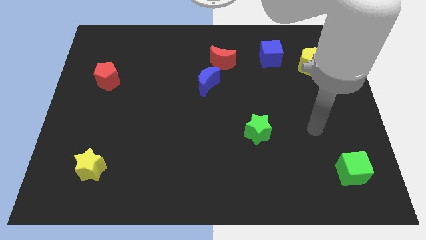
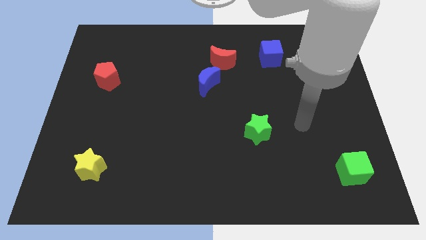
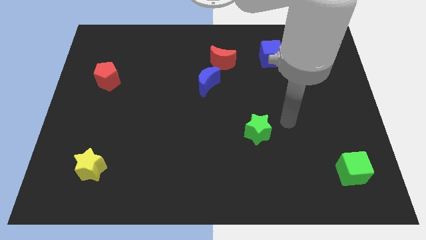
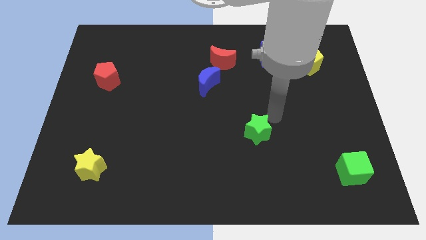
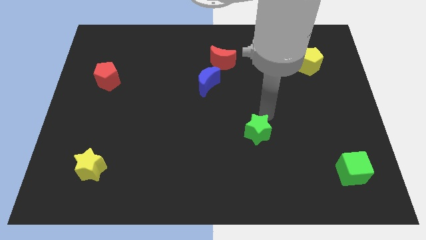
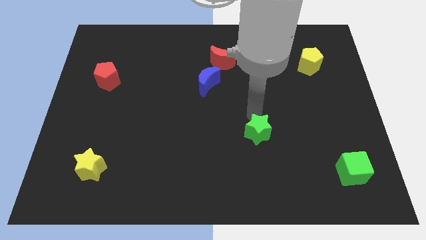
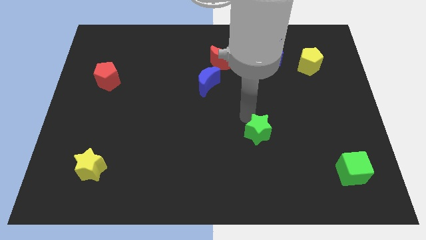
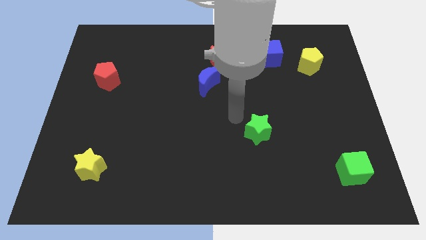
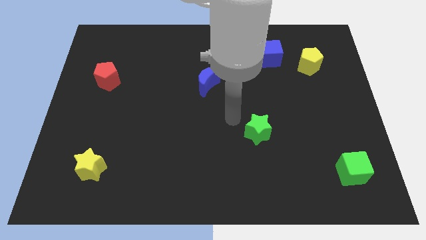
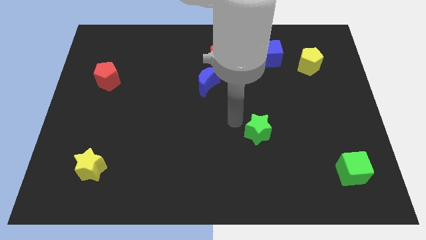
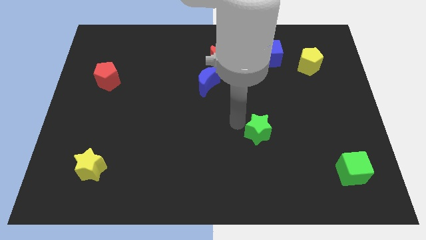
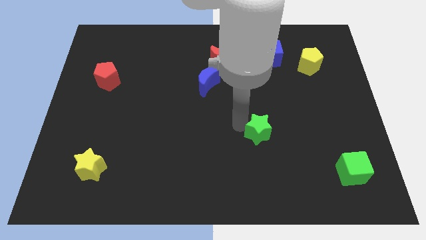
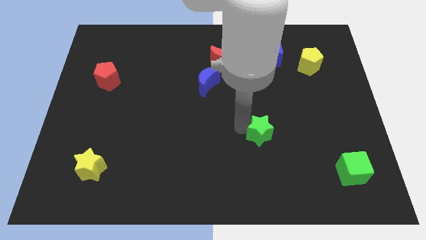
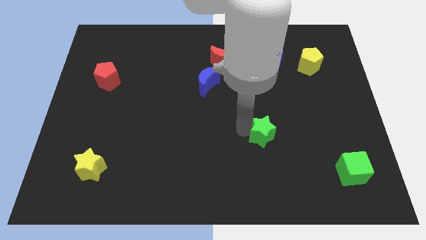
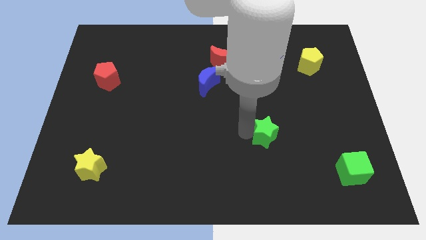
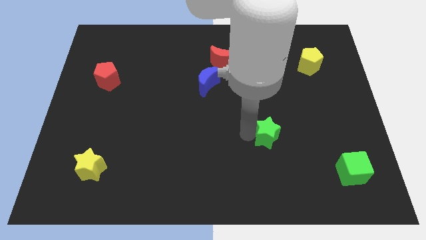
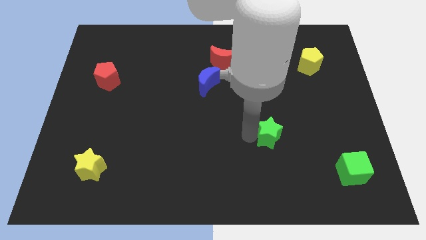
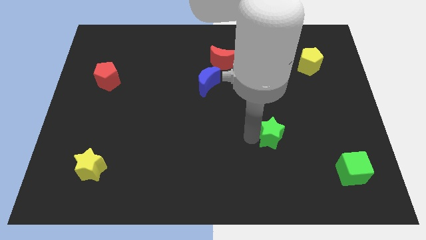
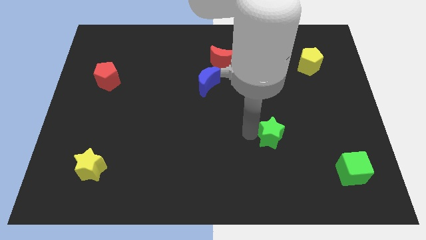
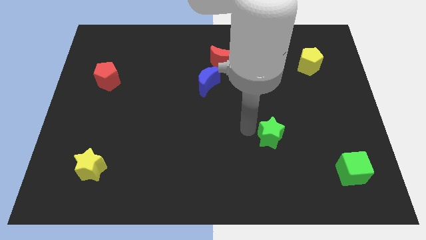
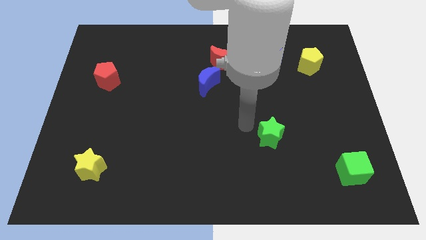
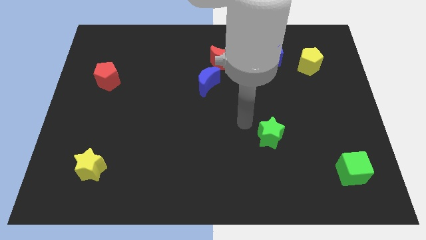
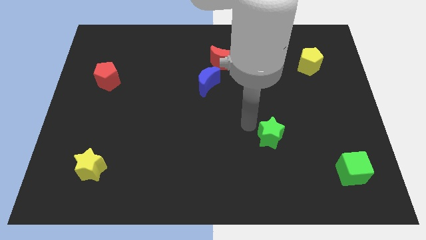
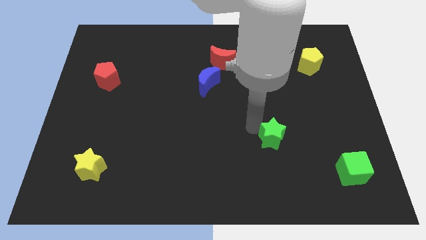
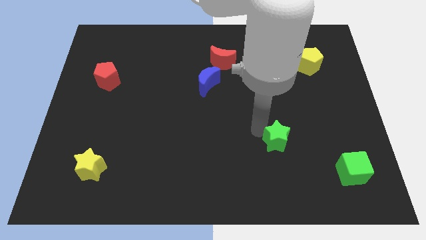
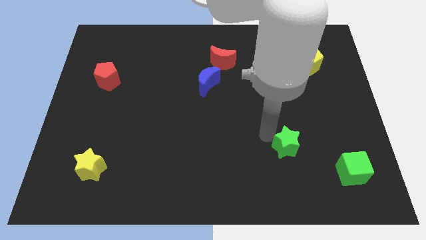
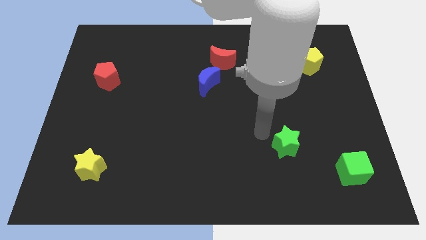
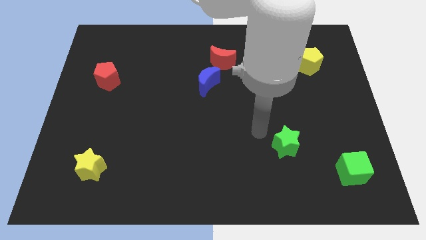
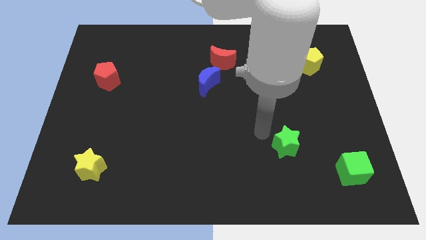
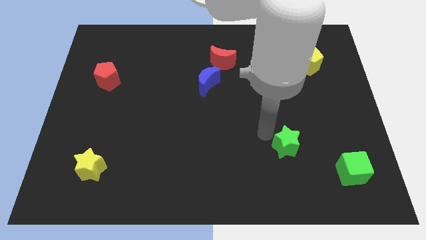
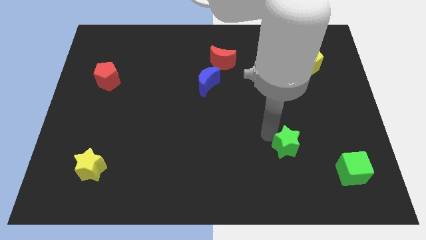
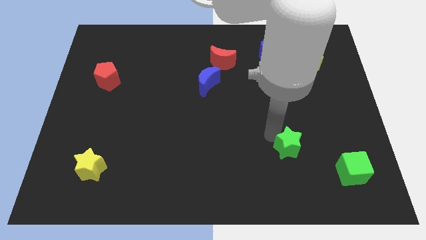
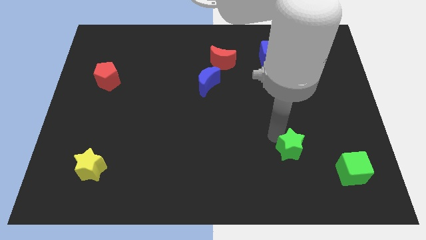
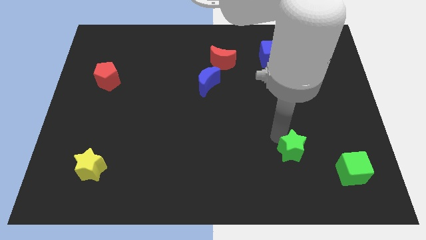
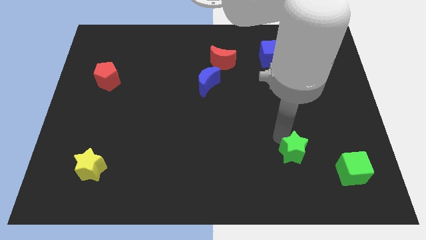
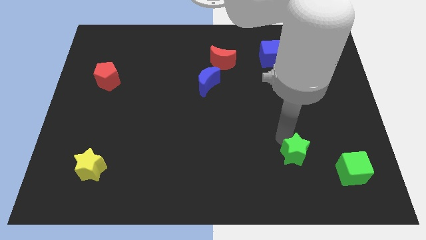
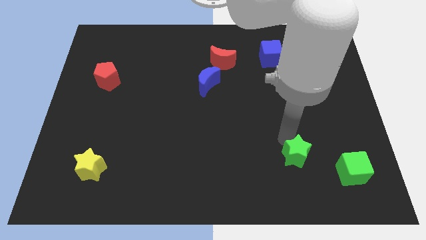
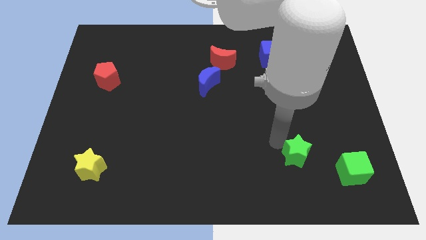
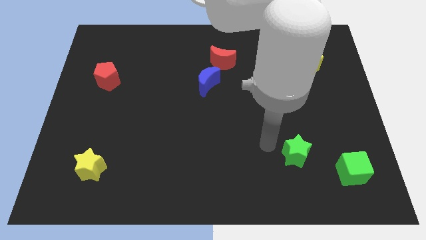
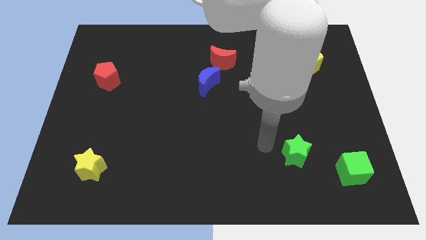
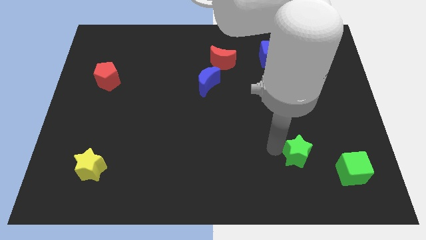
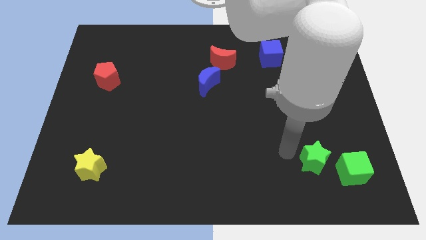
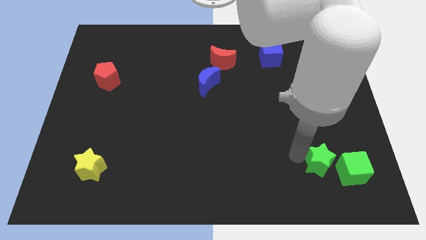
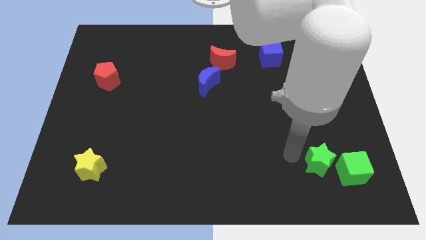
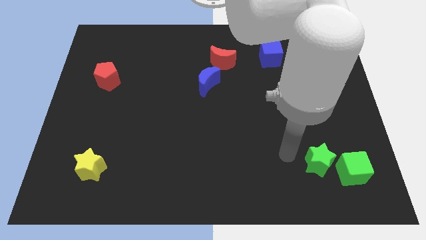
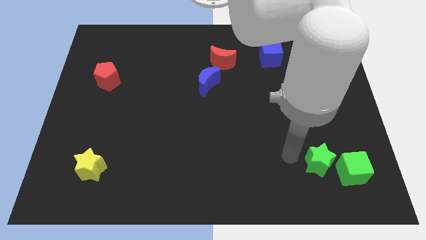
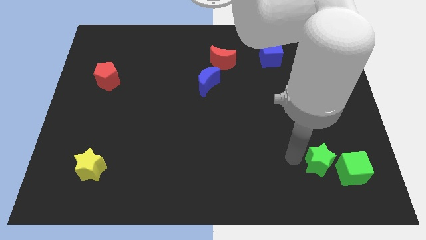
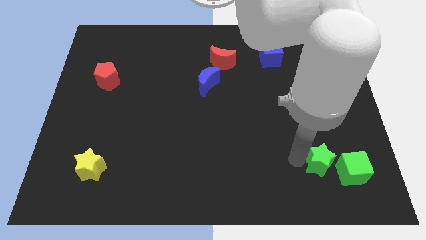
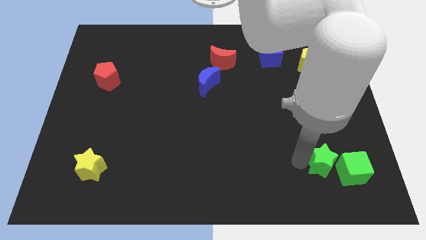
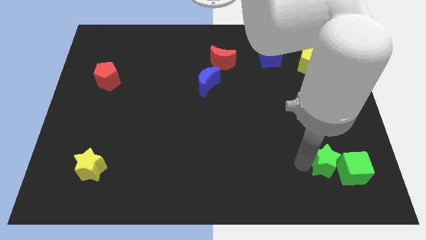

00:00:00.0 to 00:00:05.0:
move the green star to the green cube

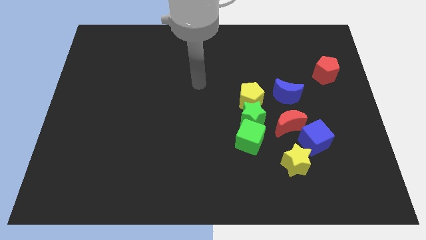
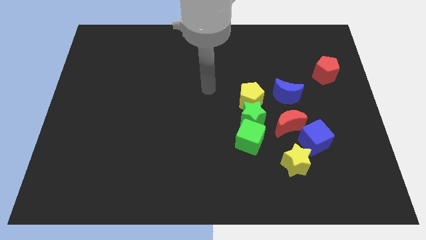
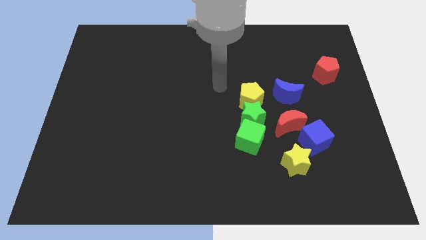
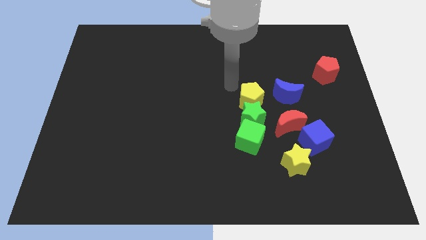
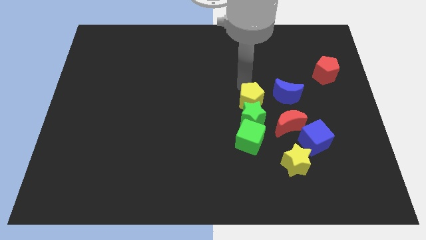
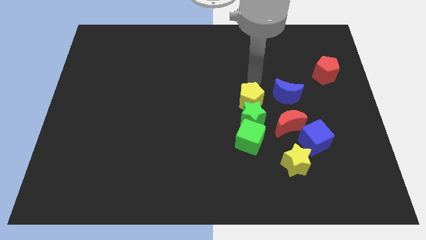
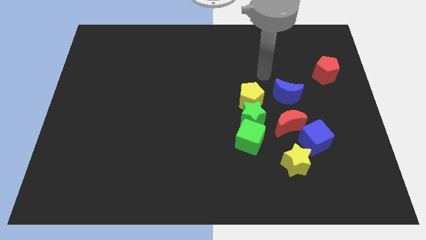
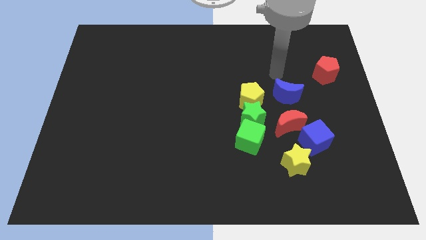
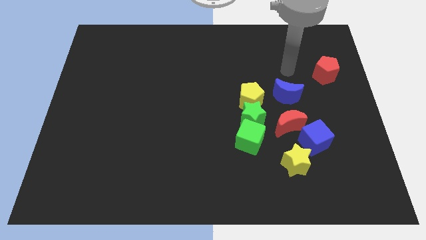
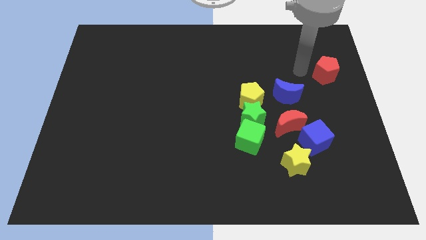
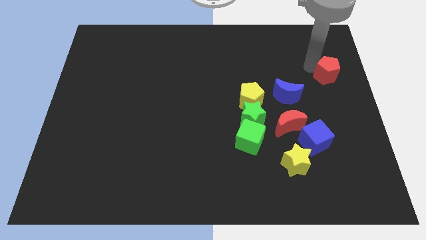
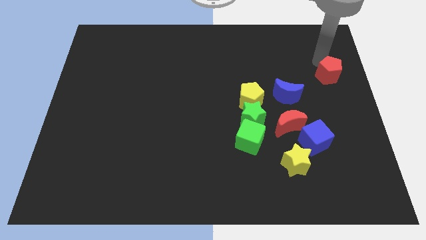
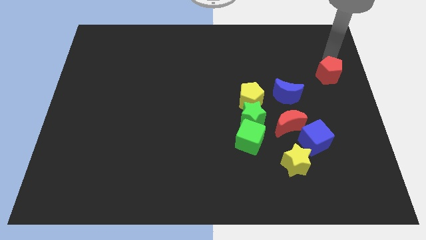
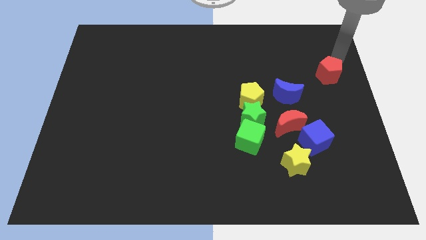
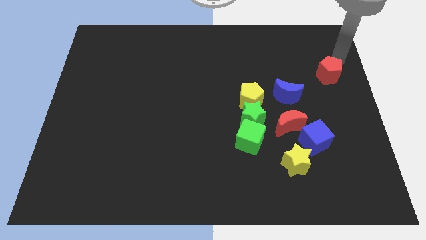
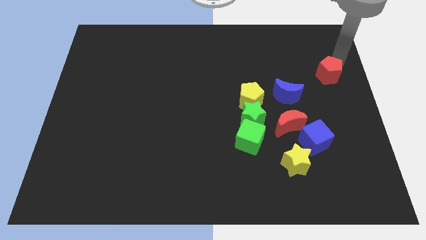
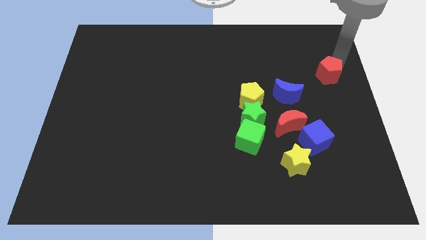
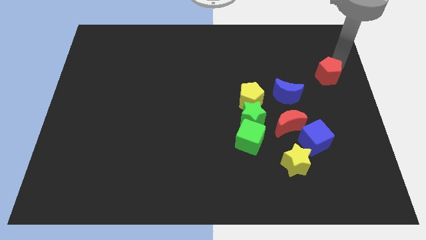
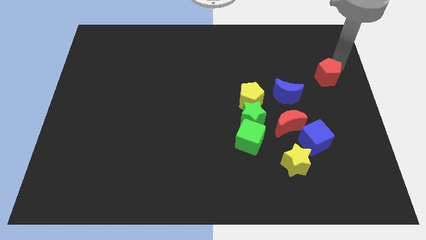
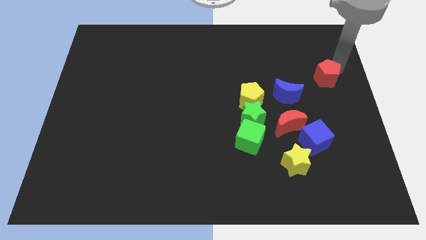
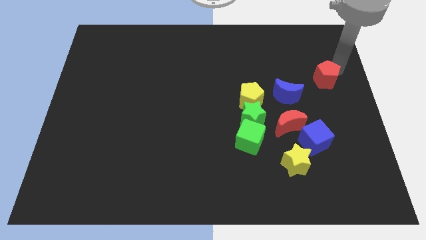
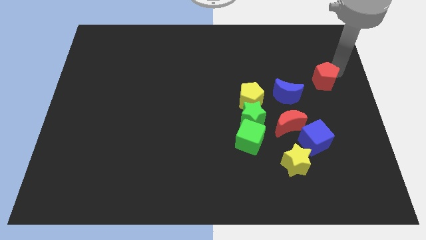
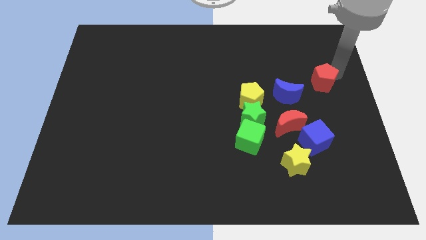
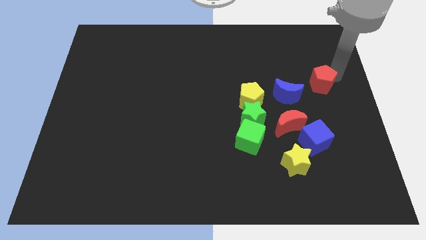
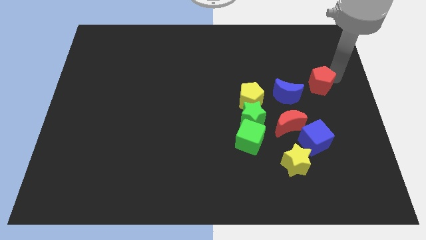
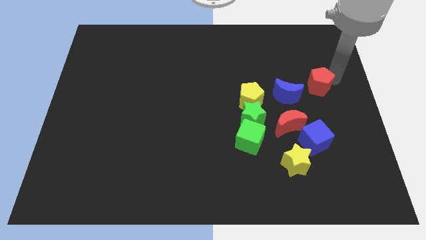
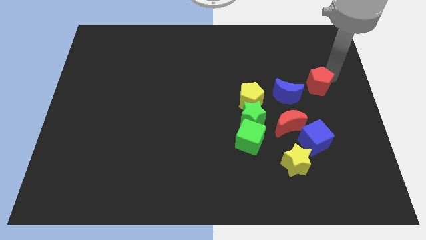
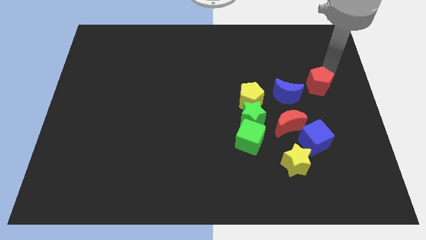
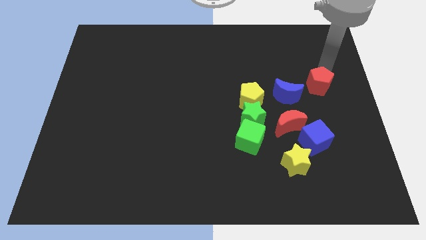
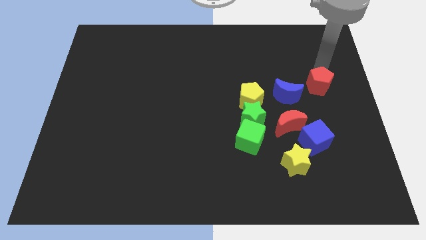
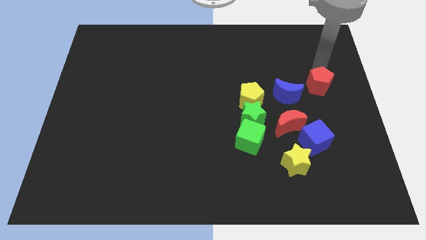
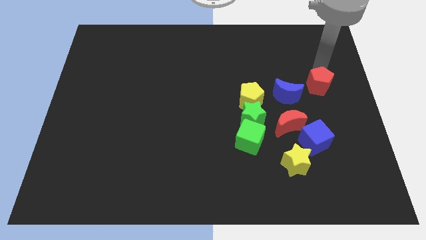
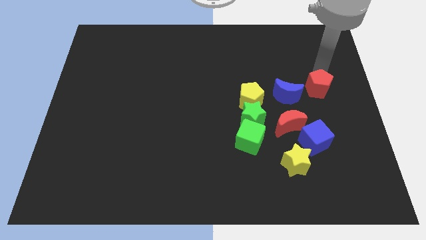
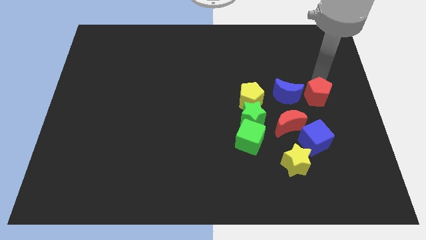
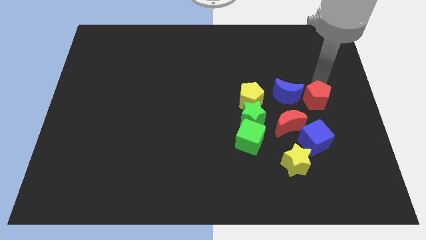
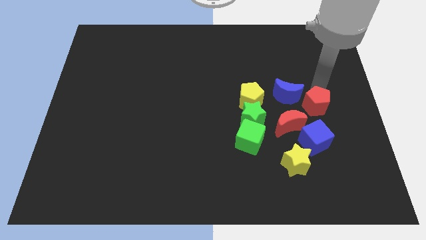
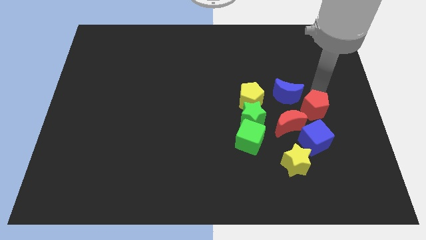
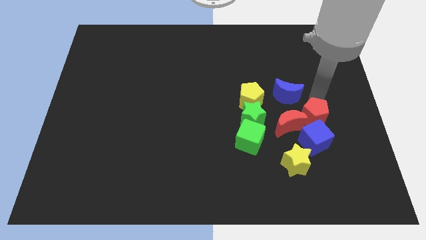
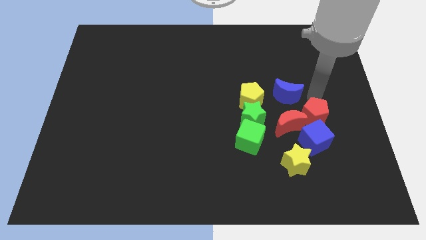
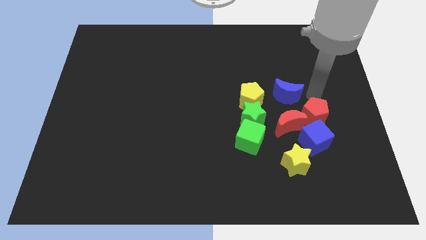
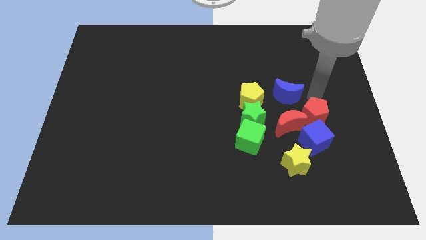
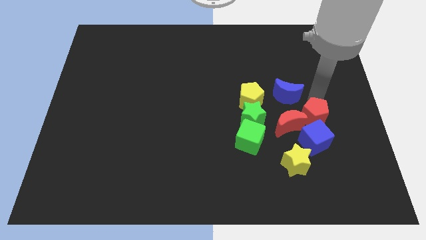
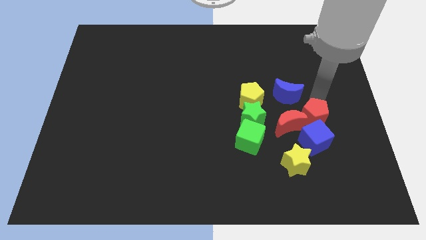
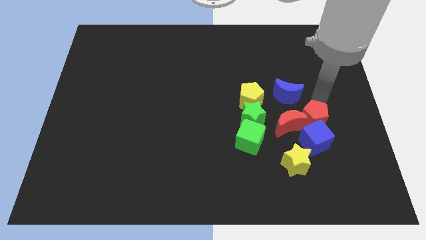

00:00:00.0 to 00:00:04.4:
put the red pentagon next to the blue cube
